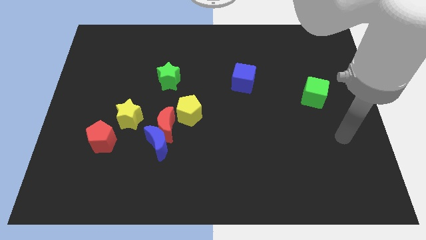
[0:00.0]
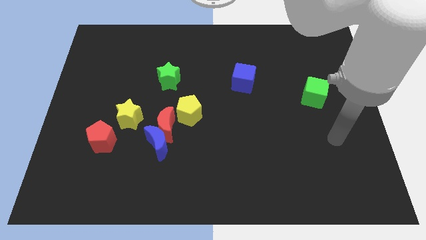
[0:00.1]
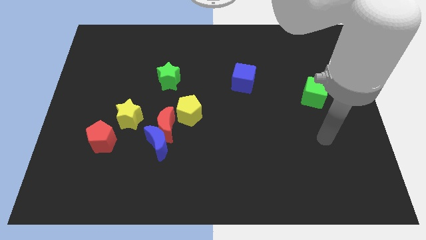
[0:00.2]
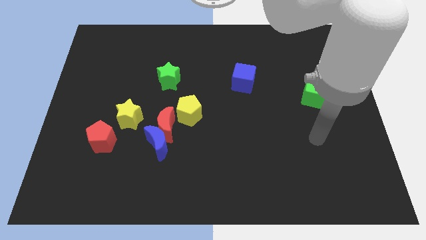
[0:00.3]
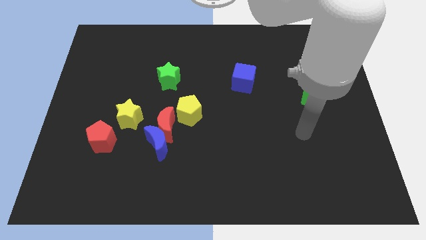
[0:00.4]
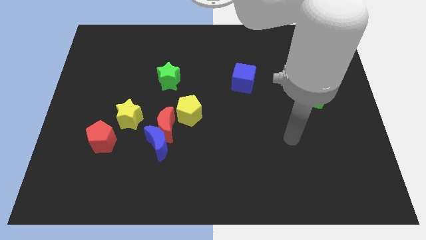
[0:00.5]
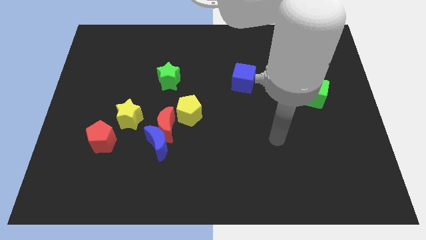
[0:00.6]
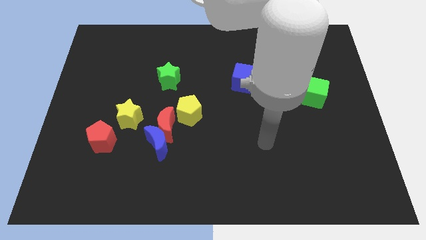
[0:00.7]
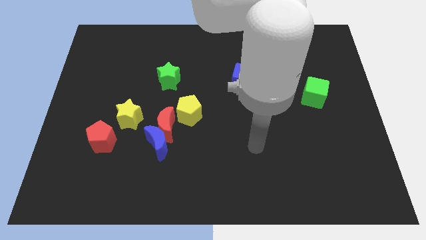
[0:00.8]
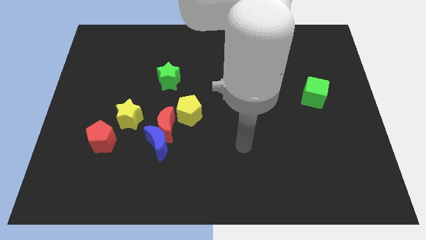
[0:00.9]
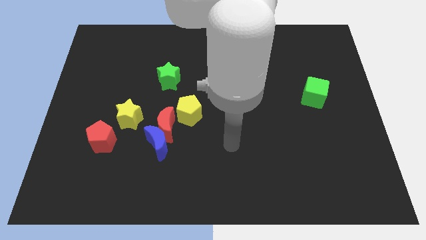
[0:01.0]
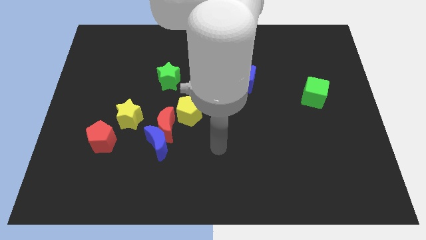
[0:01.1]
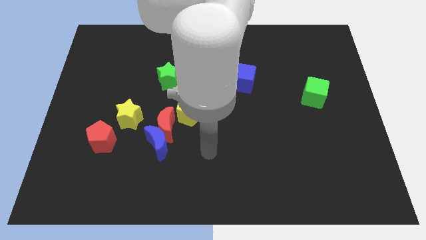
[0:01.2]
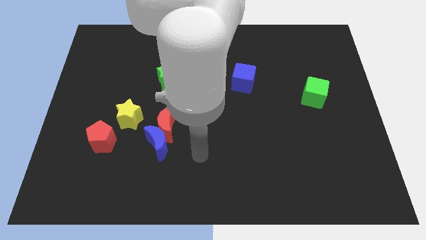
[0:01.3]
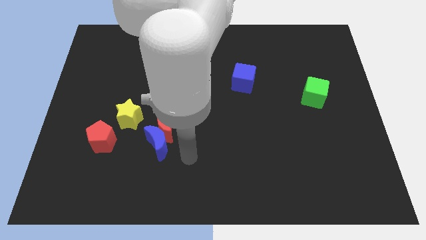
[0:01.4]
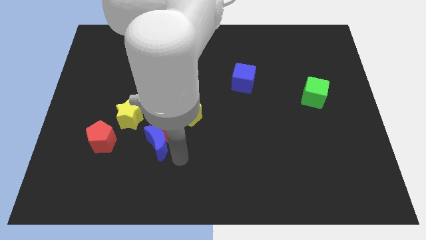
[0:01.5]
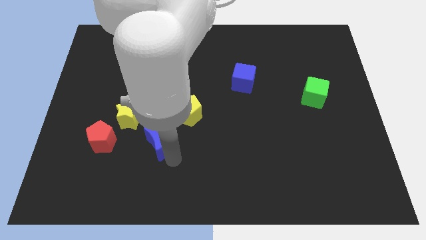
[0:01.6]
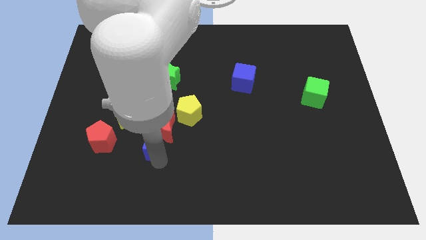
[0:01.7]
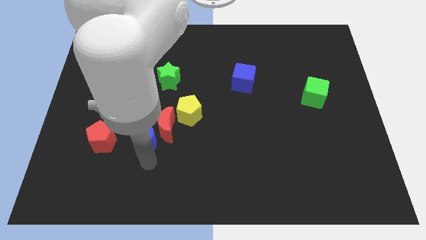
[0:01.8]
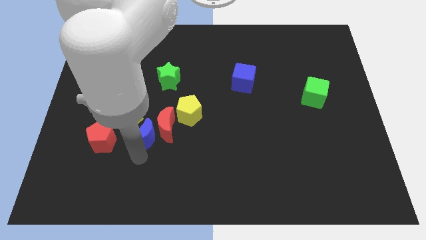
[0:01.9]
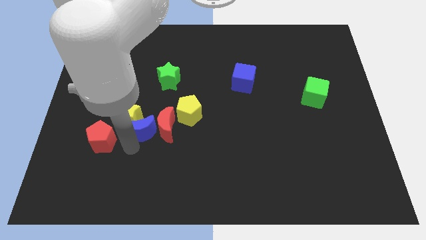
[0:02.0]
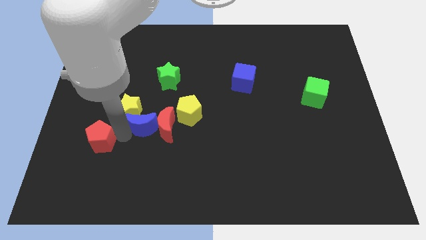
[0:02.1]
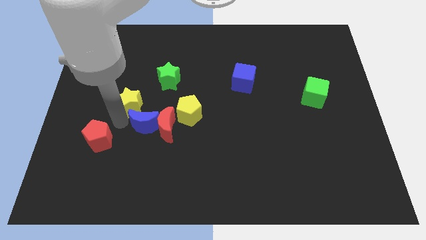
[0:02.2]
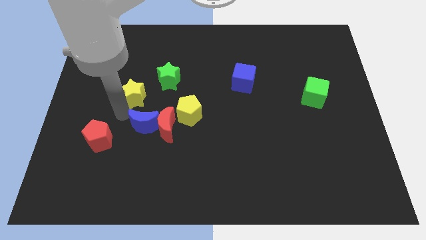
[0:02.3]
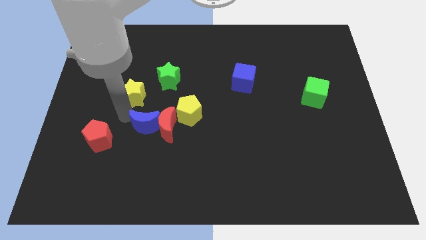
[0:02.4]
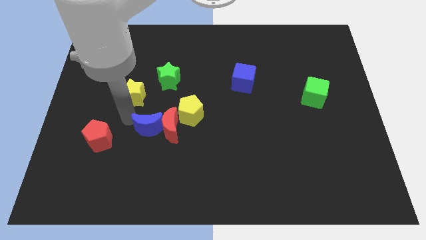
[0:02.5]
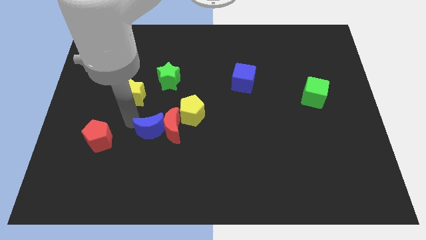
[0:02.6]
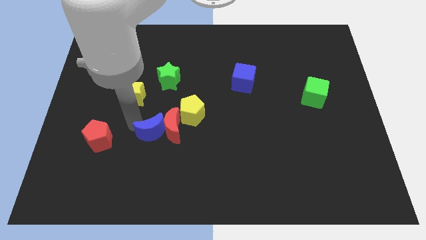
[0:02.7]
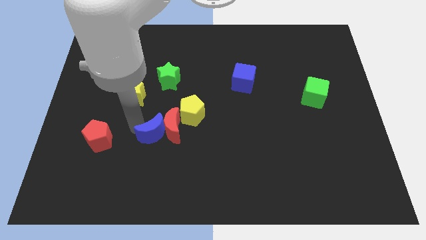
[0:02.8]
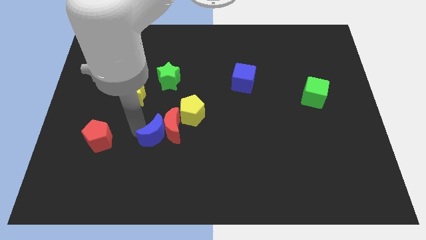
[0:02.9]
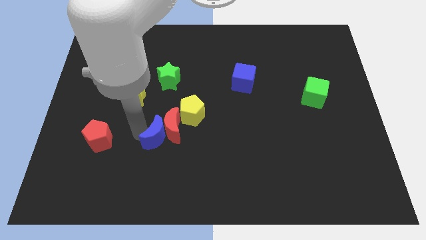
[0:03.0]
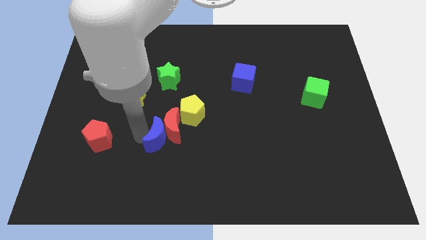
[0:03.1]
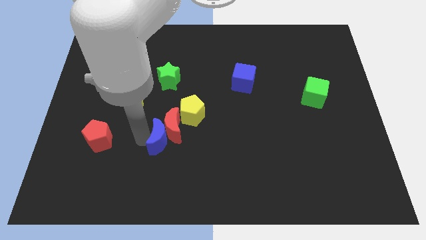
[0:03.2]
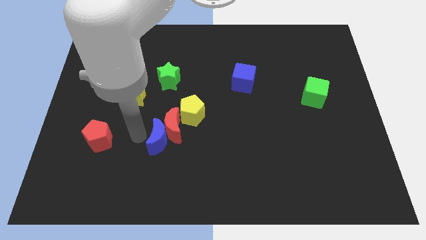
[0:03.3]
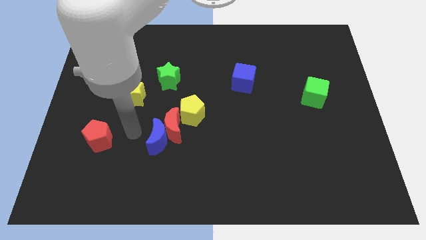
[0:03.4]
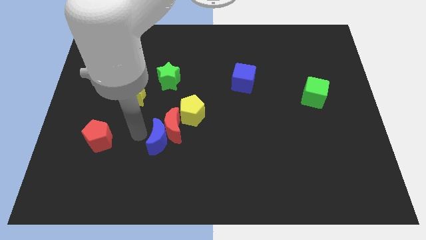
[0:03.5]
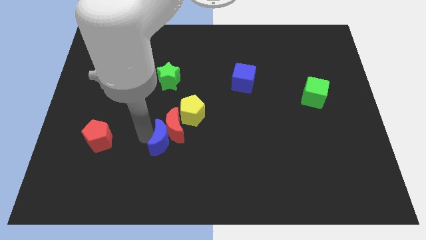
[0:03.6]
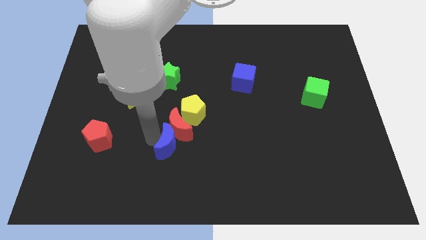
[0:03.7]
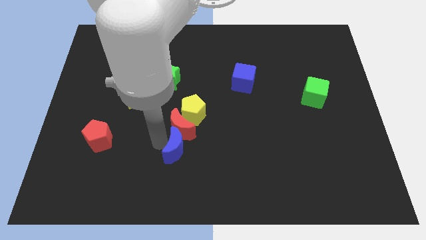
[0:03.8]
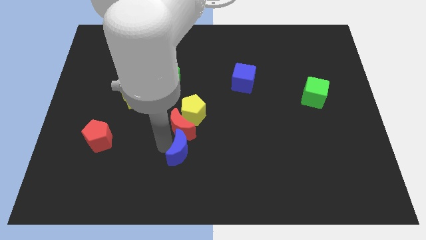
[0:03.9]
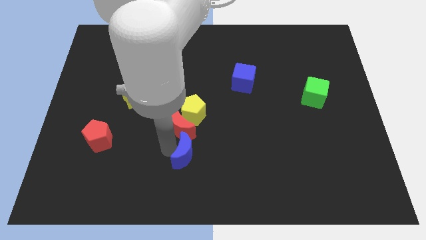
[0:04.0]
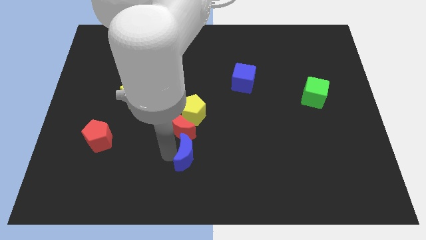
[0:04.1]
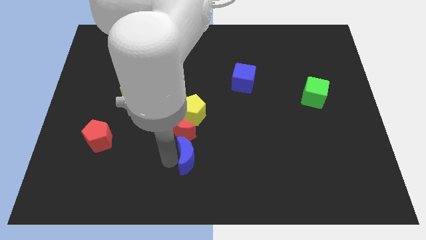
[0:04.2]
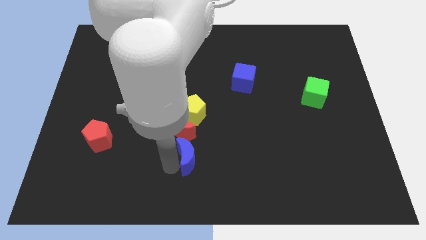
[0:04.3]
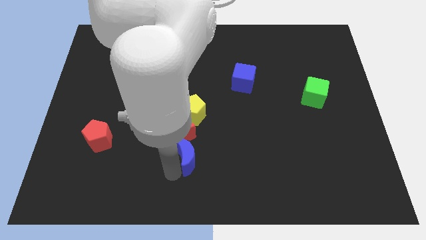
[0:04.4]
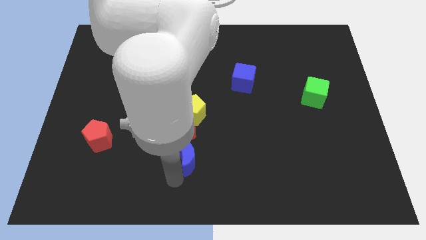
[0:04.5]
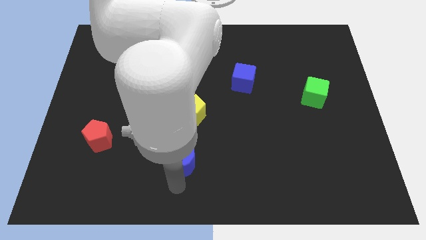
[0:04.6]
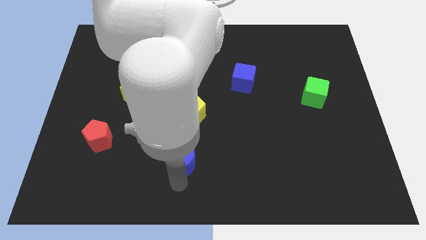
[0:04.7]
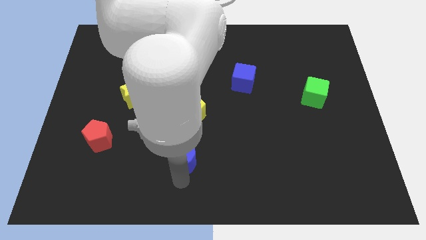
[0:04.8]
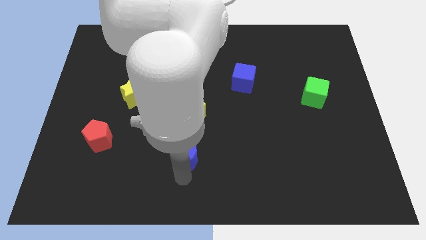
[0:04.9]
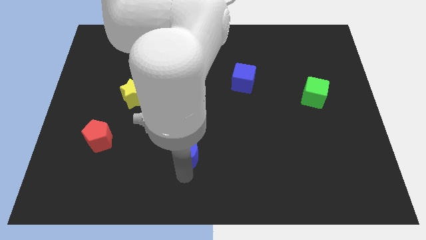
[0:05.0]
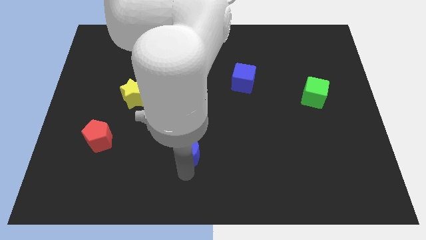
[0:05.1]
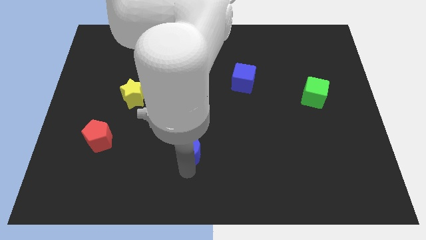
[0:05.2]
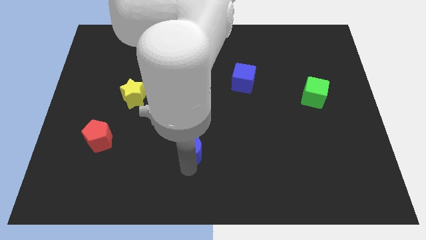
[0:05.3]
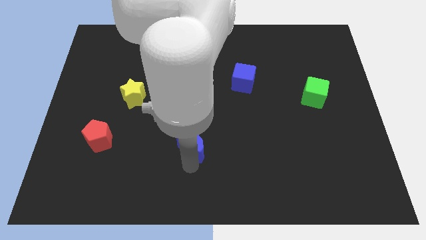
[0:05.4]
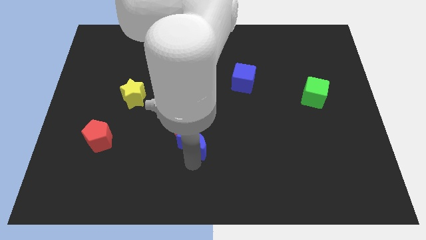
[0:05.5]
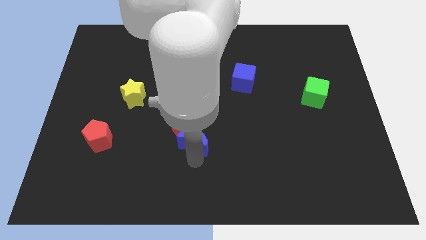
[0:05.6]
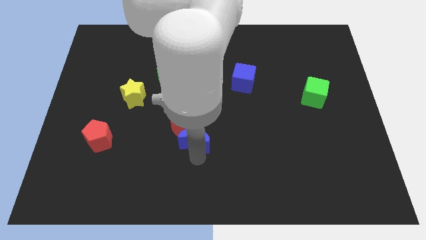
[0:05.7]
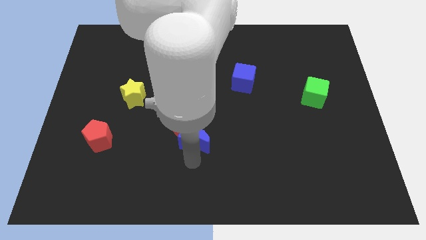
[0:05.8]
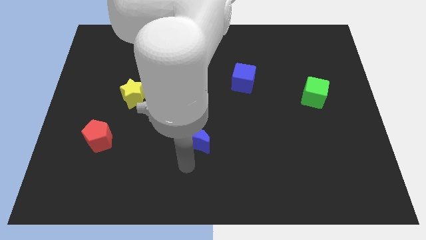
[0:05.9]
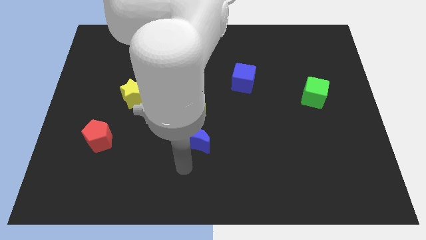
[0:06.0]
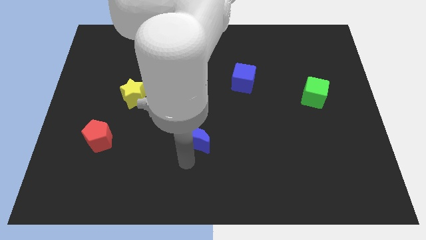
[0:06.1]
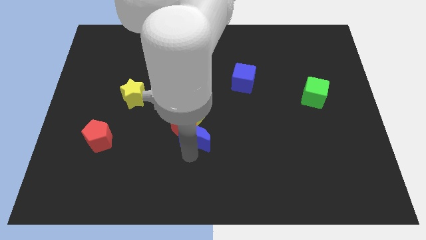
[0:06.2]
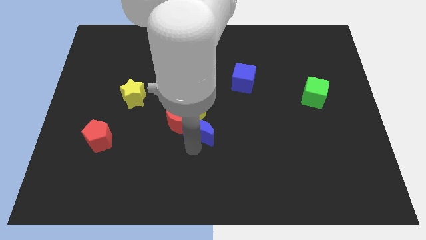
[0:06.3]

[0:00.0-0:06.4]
slightly push the blue moon up and then right

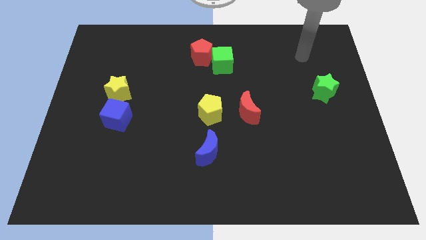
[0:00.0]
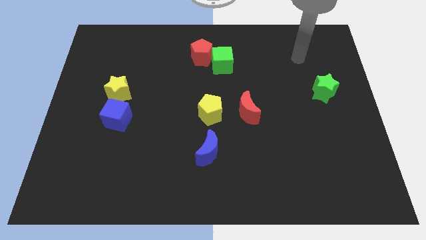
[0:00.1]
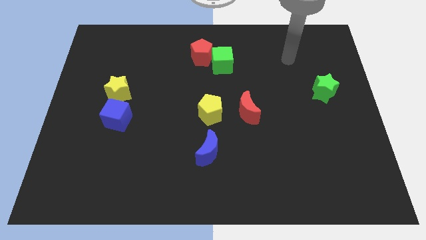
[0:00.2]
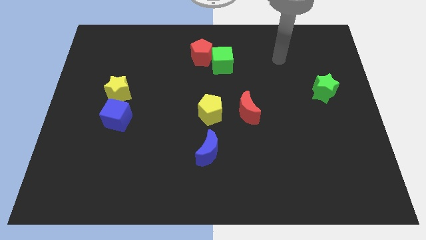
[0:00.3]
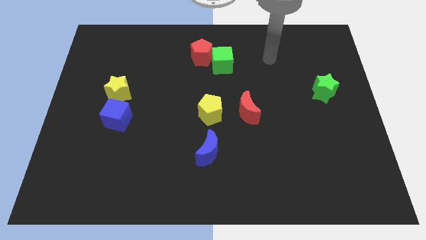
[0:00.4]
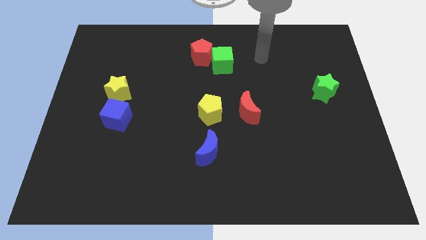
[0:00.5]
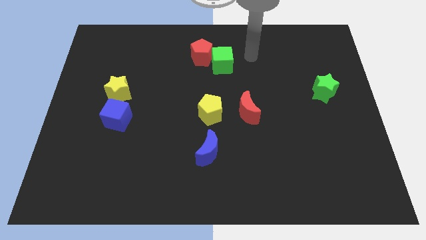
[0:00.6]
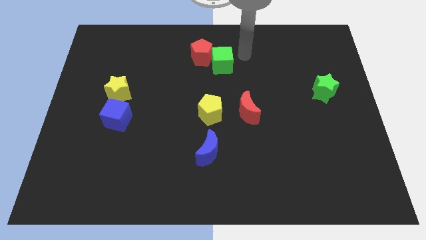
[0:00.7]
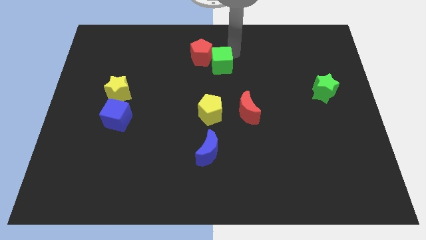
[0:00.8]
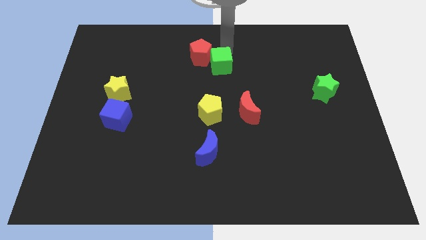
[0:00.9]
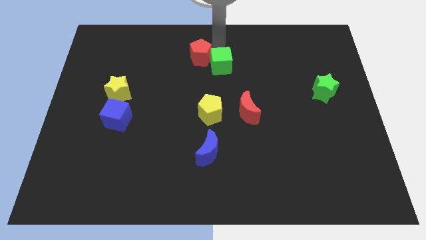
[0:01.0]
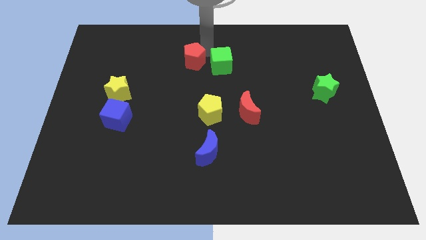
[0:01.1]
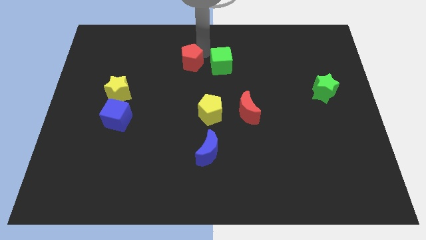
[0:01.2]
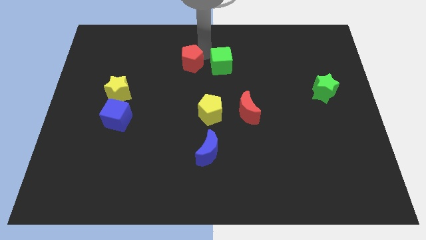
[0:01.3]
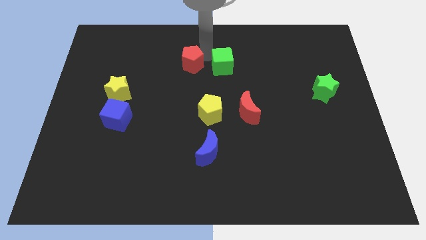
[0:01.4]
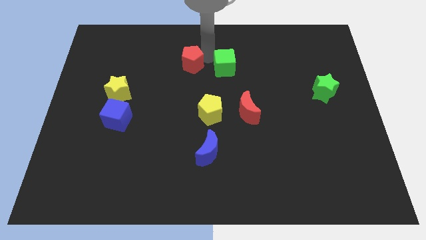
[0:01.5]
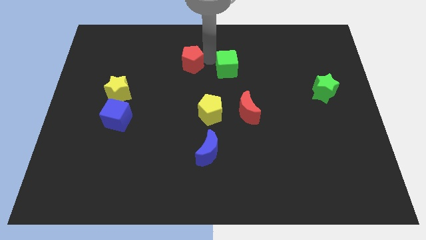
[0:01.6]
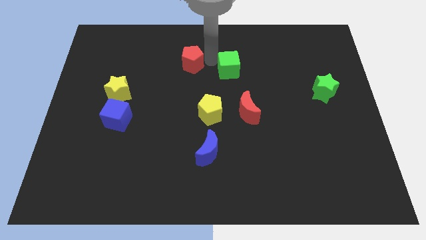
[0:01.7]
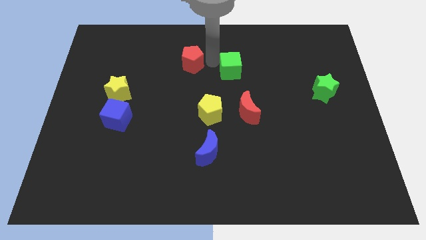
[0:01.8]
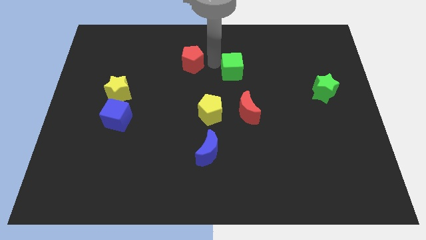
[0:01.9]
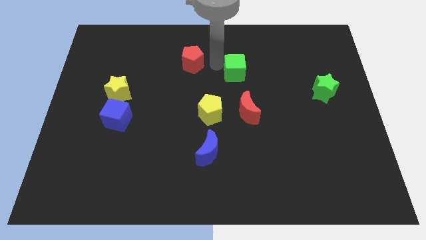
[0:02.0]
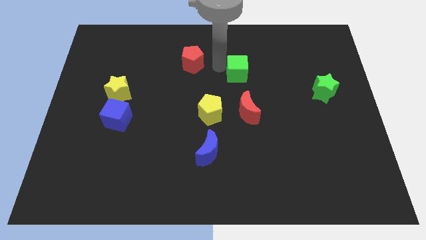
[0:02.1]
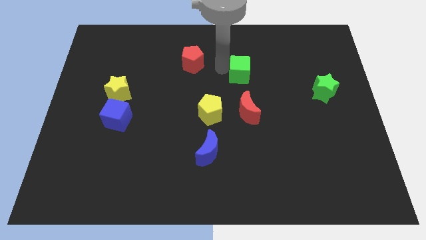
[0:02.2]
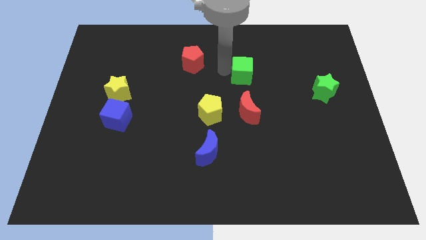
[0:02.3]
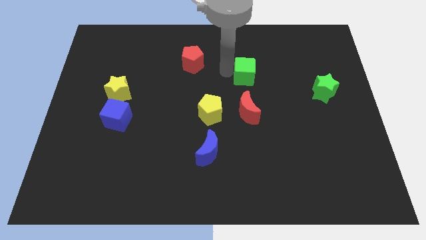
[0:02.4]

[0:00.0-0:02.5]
slightly push the green cube down and then right
